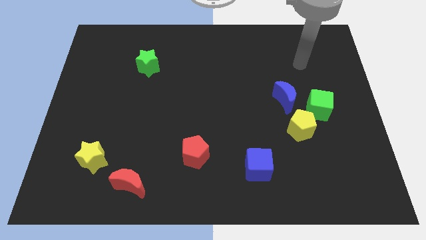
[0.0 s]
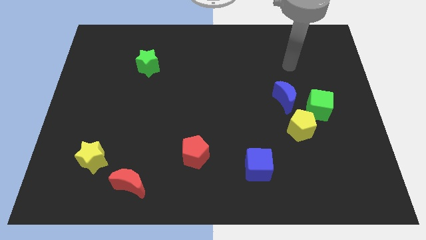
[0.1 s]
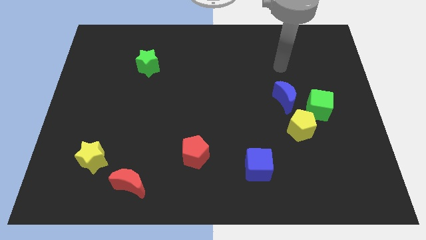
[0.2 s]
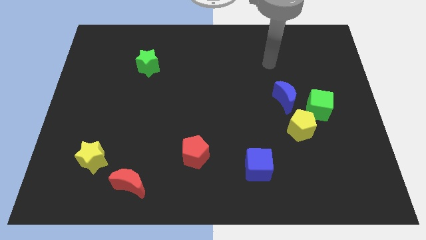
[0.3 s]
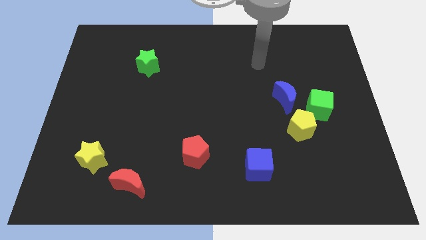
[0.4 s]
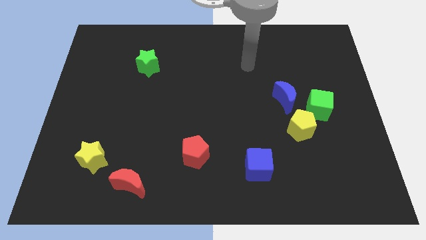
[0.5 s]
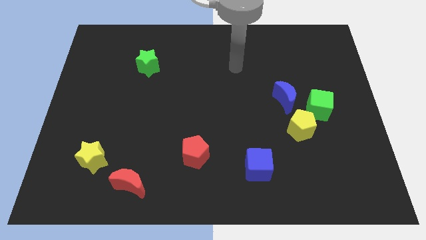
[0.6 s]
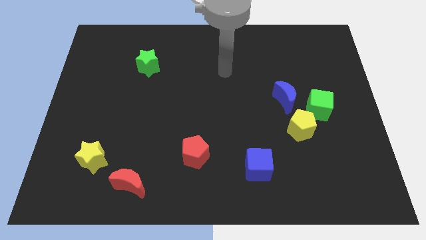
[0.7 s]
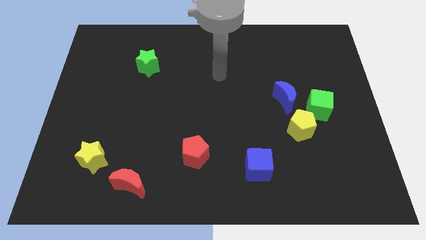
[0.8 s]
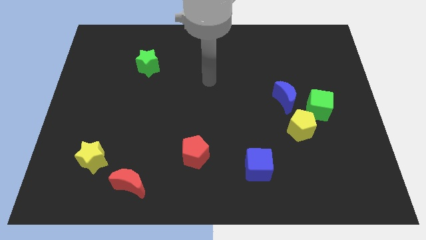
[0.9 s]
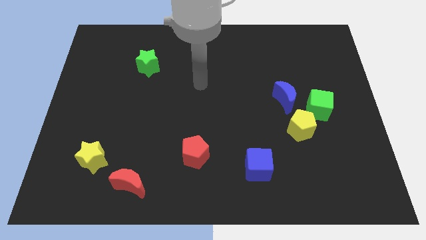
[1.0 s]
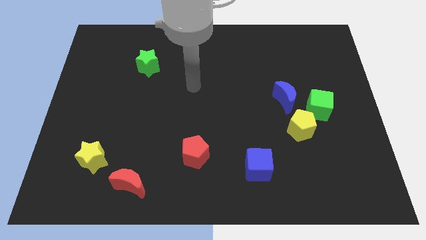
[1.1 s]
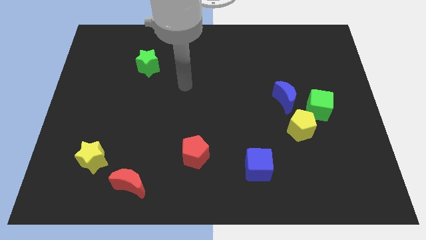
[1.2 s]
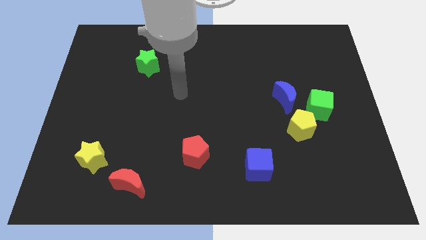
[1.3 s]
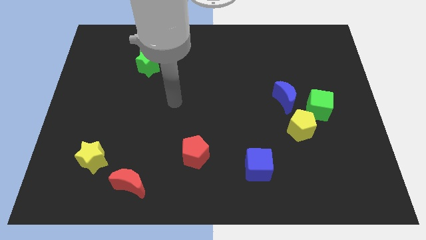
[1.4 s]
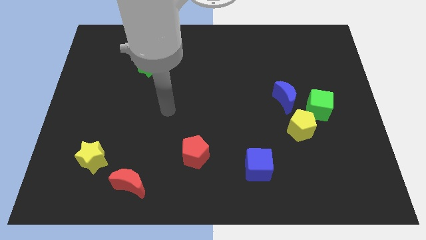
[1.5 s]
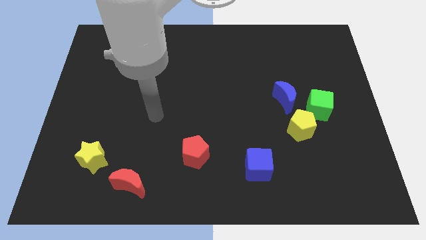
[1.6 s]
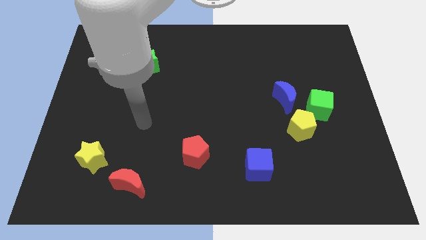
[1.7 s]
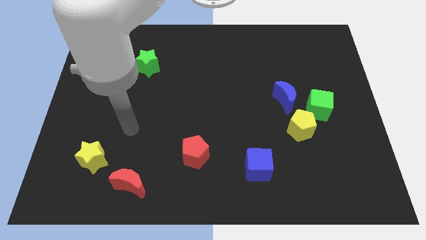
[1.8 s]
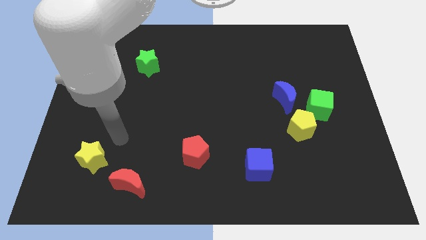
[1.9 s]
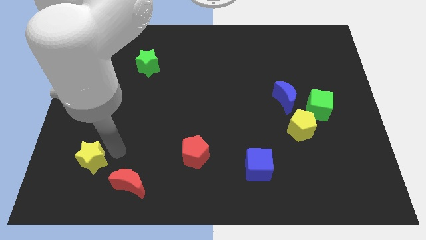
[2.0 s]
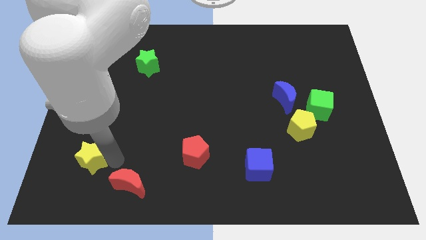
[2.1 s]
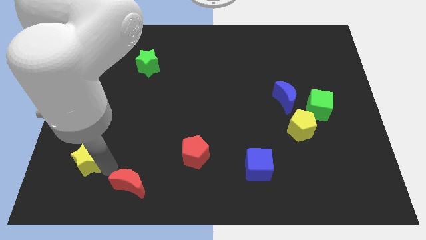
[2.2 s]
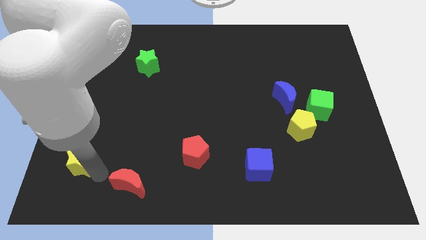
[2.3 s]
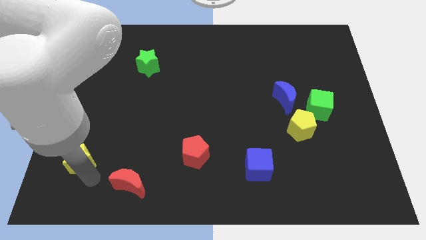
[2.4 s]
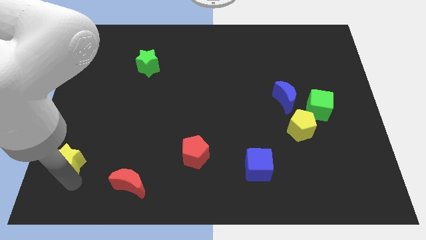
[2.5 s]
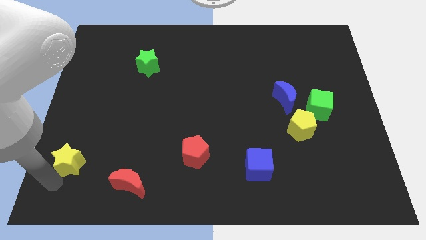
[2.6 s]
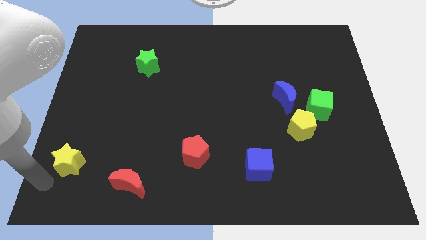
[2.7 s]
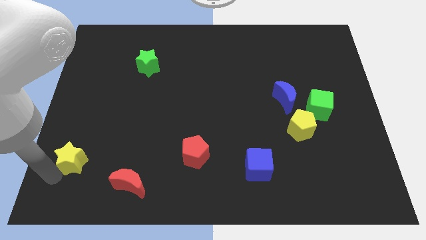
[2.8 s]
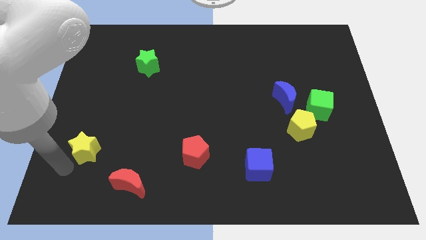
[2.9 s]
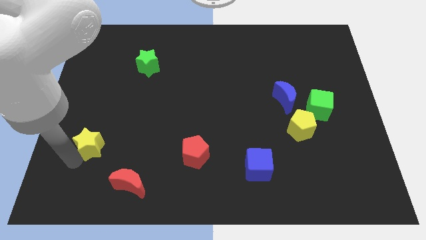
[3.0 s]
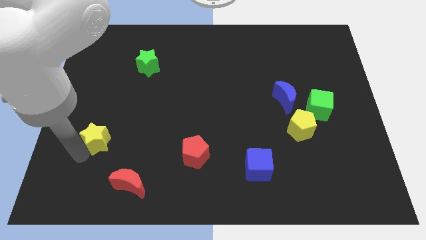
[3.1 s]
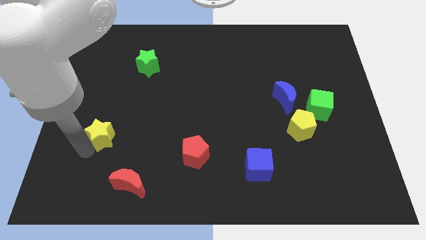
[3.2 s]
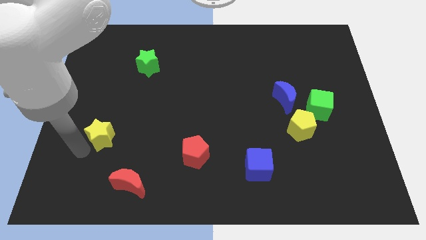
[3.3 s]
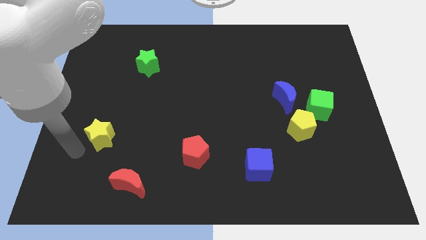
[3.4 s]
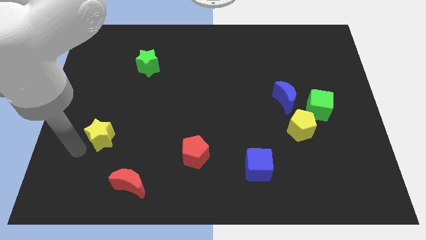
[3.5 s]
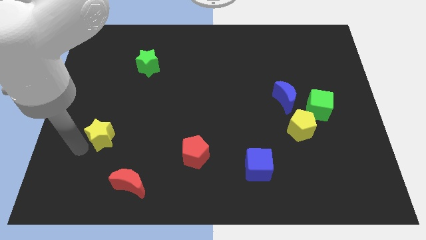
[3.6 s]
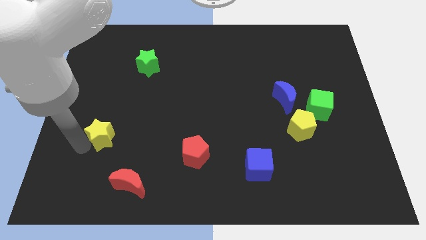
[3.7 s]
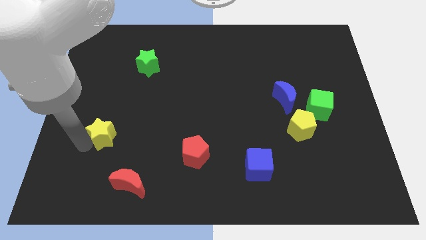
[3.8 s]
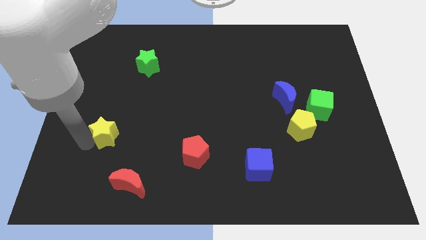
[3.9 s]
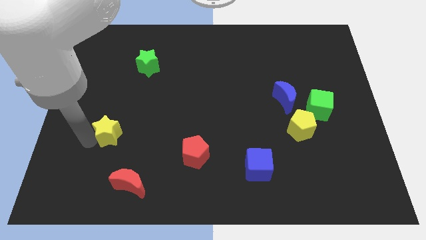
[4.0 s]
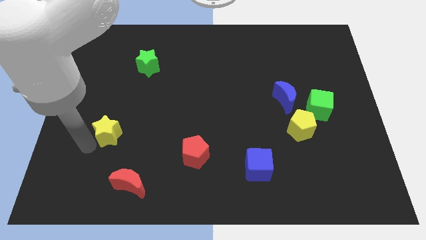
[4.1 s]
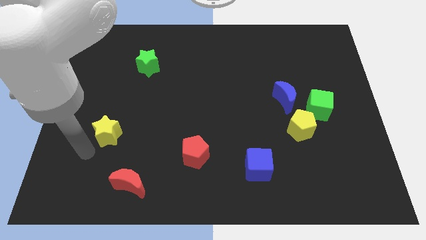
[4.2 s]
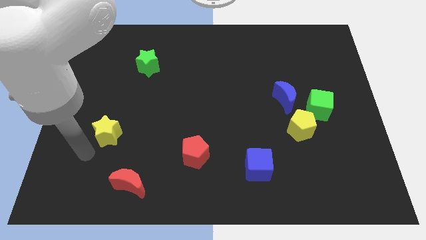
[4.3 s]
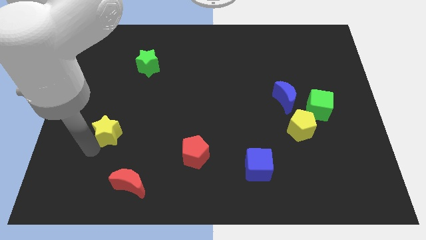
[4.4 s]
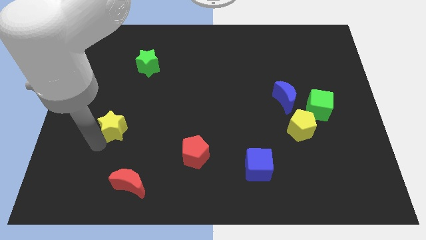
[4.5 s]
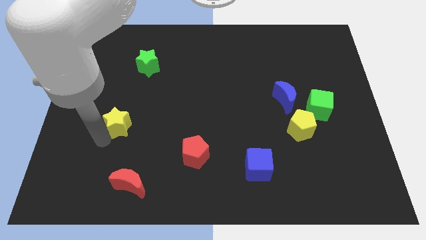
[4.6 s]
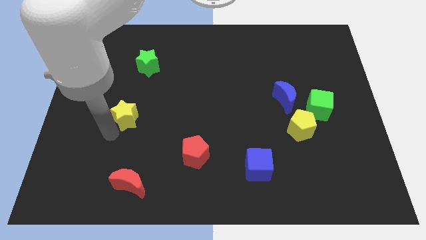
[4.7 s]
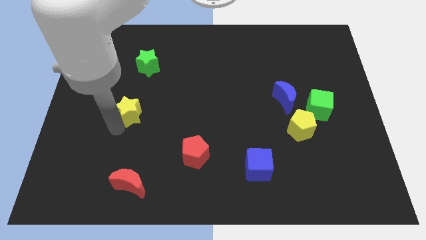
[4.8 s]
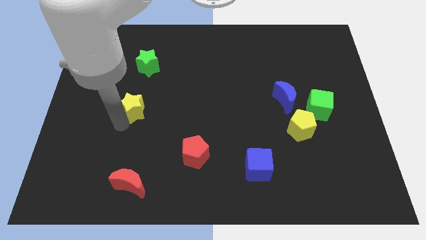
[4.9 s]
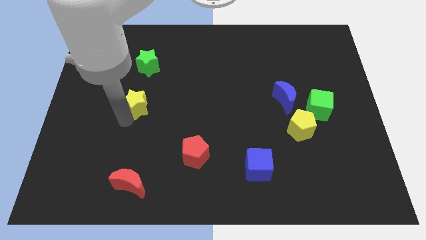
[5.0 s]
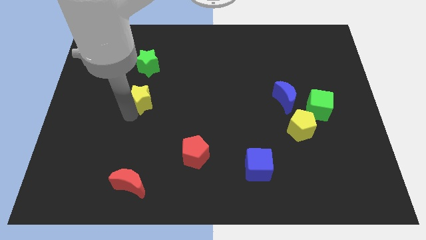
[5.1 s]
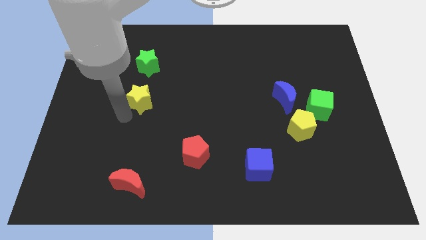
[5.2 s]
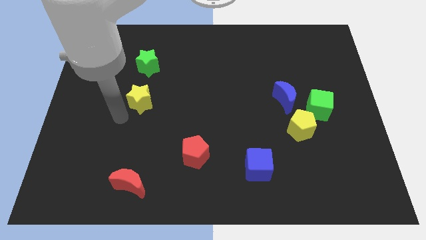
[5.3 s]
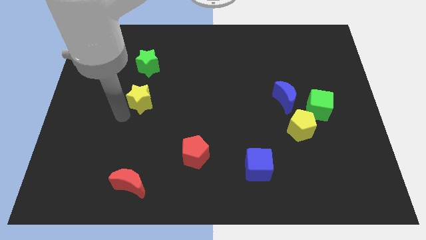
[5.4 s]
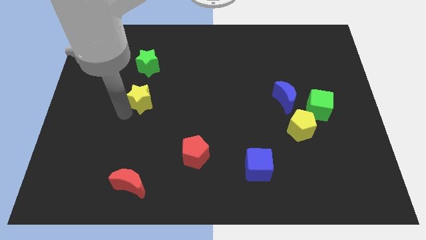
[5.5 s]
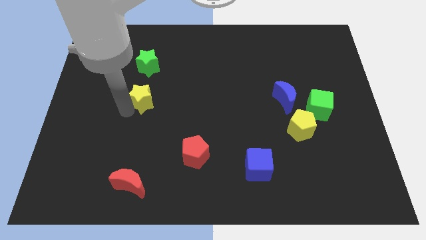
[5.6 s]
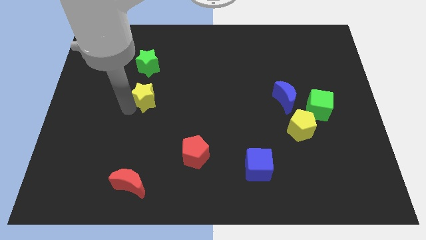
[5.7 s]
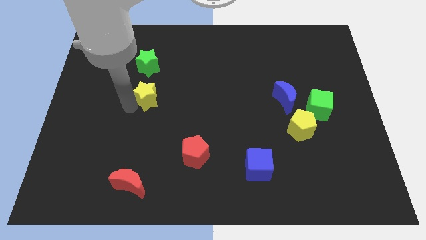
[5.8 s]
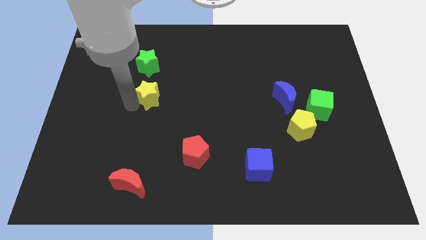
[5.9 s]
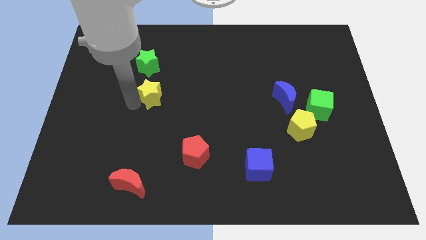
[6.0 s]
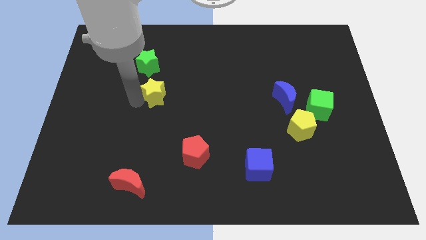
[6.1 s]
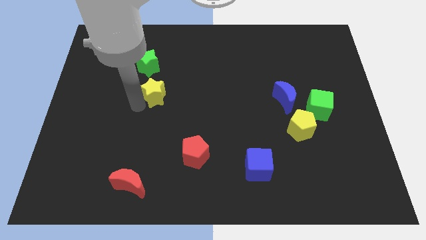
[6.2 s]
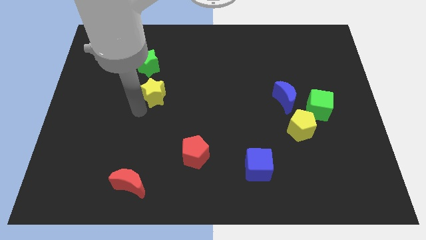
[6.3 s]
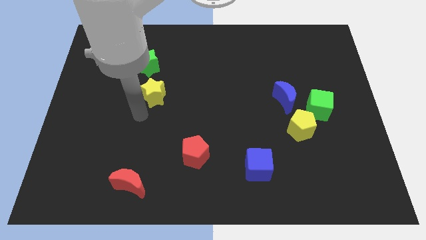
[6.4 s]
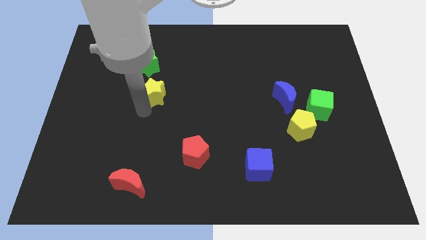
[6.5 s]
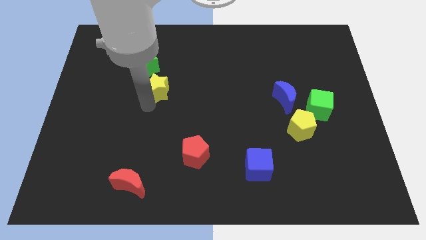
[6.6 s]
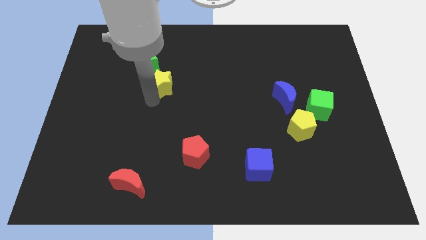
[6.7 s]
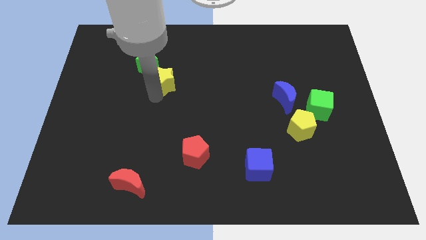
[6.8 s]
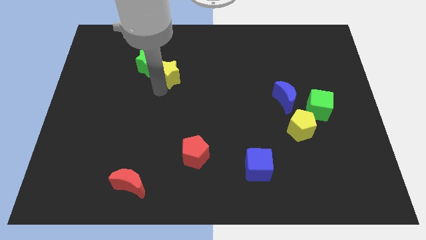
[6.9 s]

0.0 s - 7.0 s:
slide the yellow star to the right side of the green star

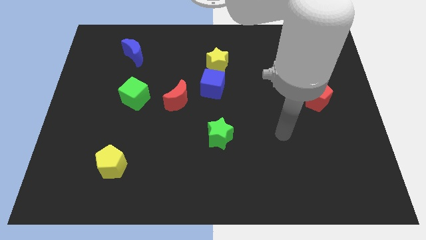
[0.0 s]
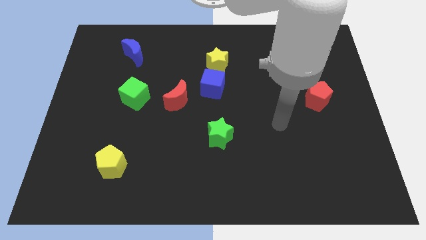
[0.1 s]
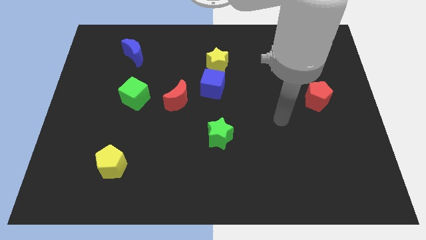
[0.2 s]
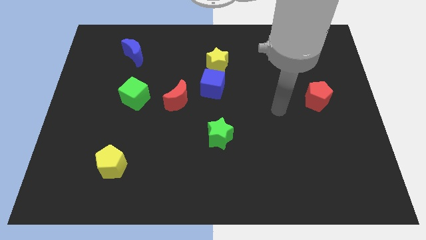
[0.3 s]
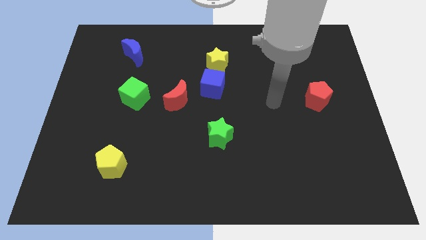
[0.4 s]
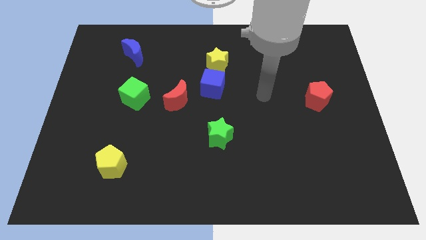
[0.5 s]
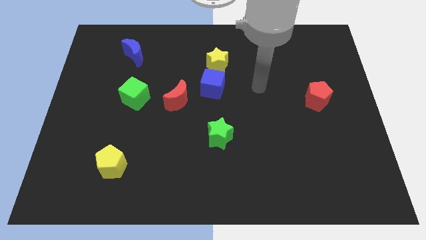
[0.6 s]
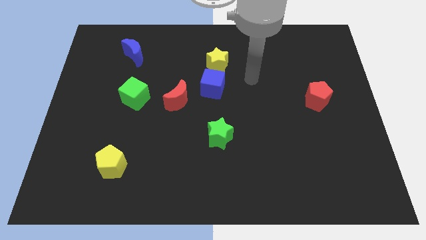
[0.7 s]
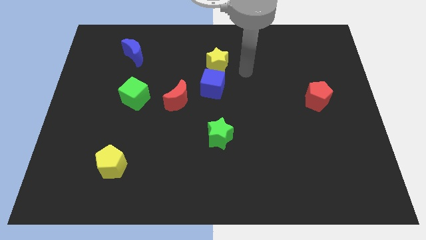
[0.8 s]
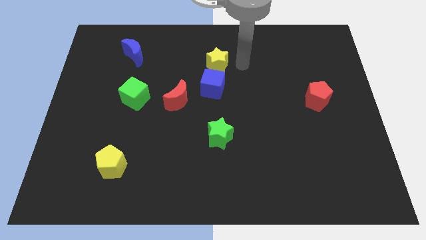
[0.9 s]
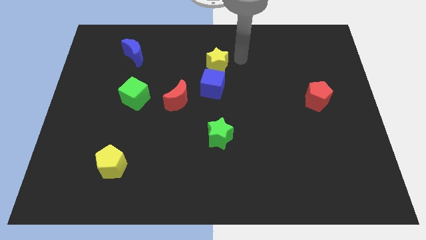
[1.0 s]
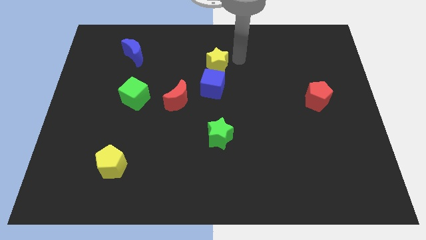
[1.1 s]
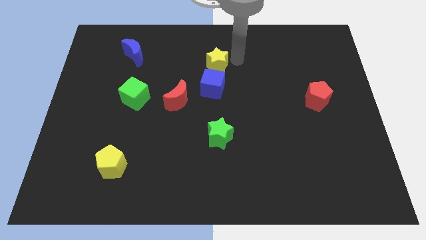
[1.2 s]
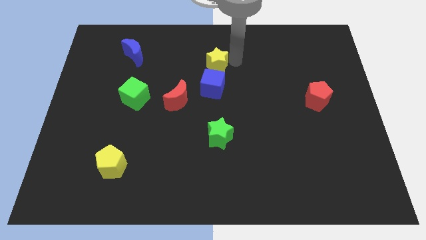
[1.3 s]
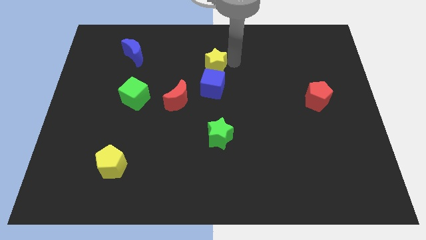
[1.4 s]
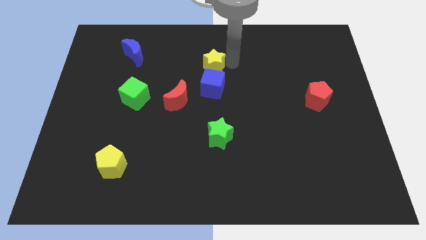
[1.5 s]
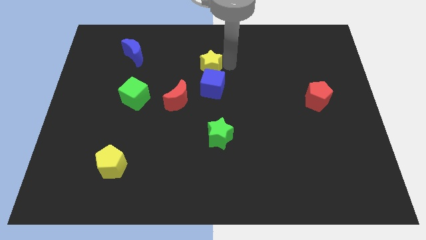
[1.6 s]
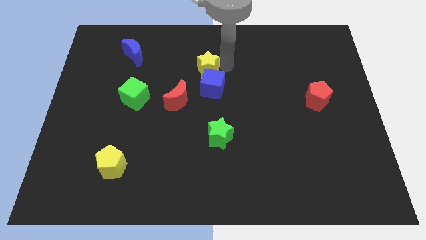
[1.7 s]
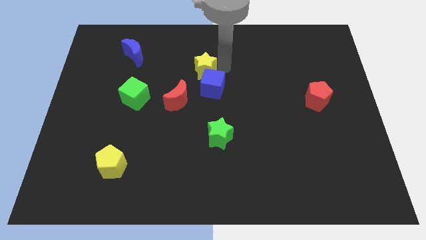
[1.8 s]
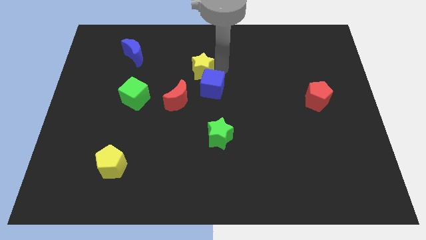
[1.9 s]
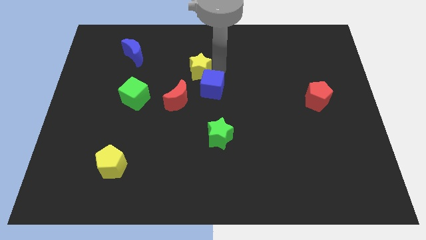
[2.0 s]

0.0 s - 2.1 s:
push the yellow star to the top of the red moon
